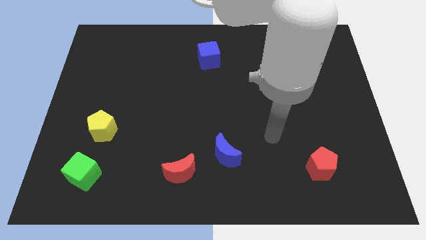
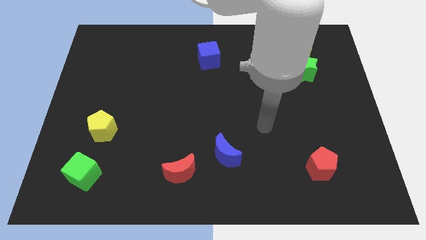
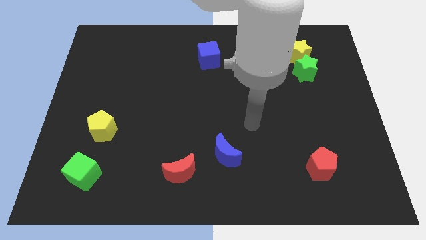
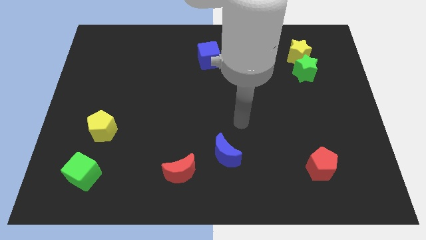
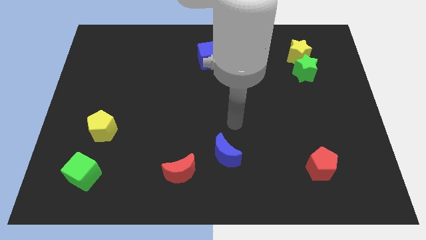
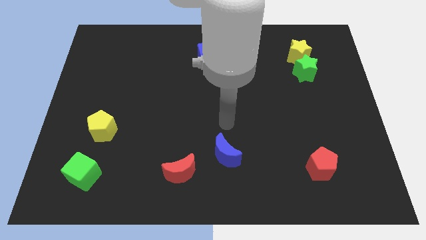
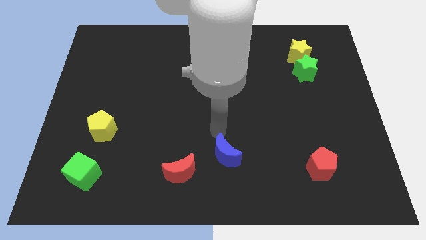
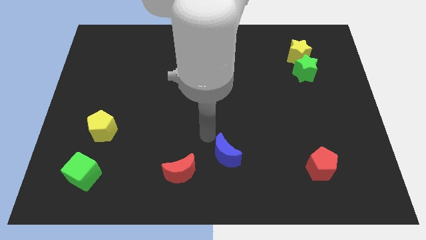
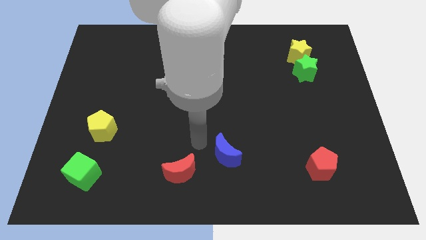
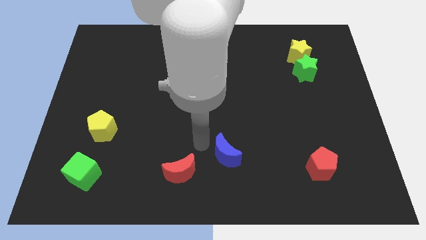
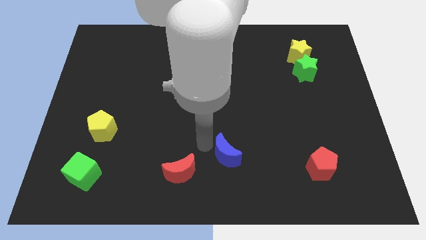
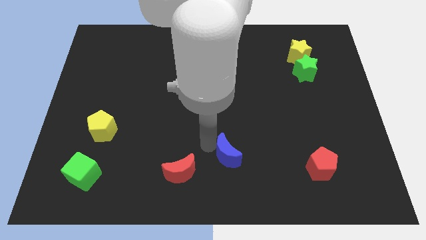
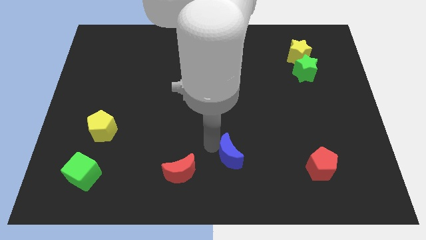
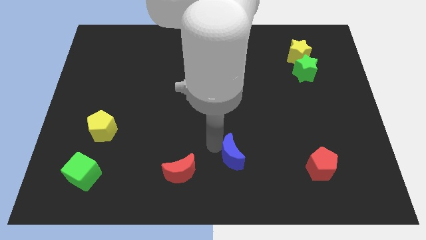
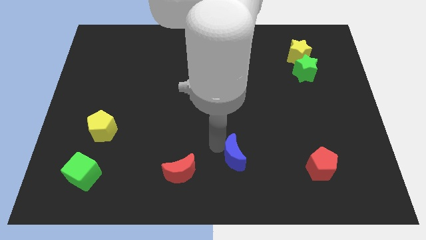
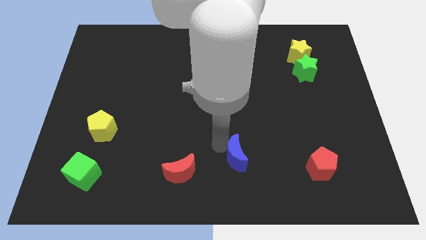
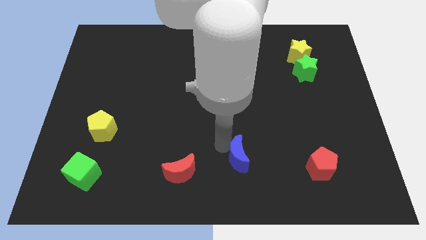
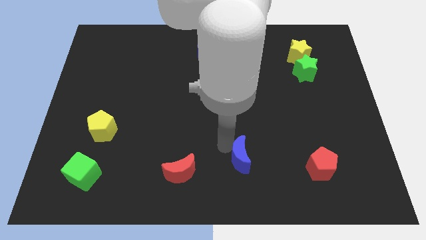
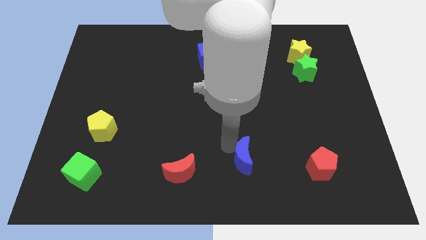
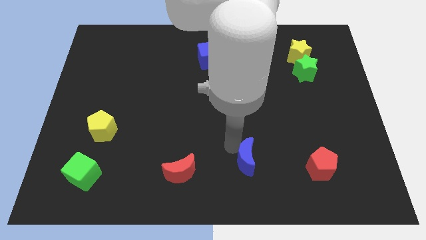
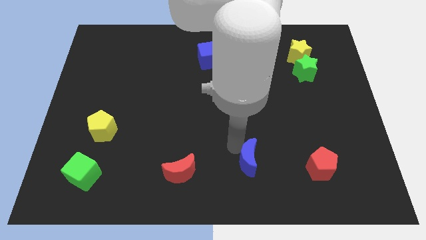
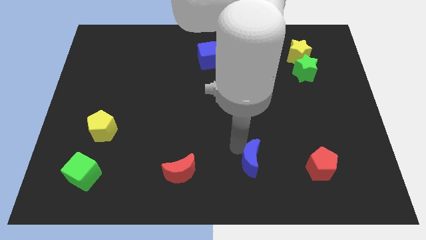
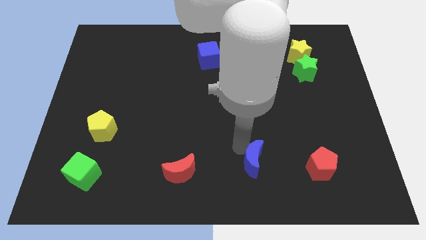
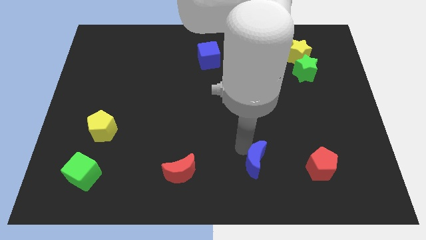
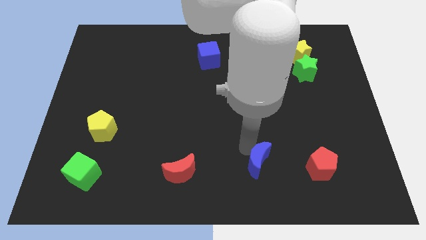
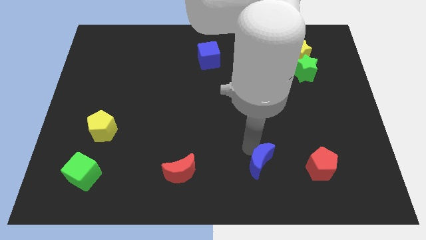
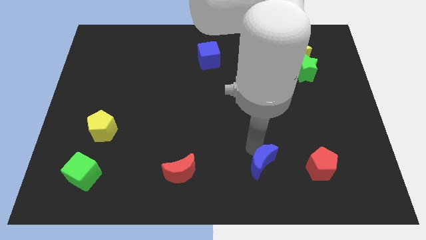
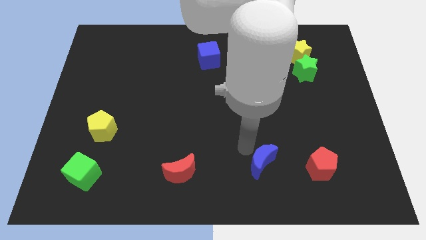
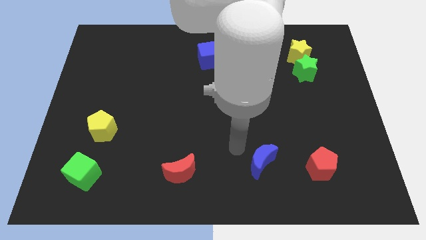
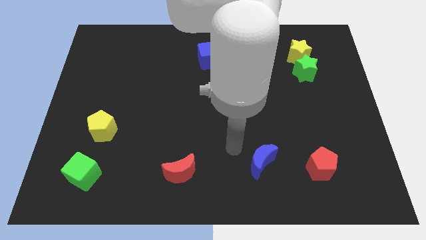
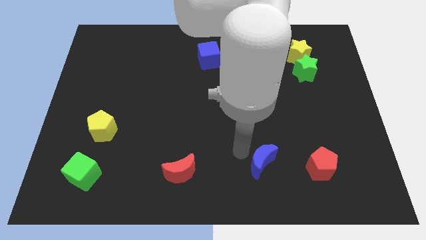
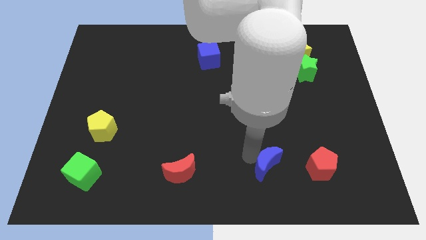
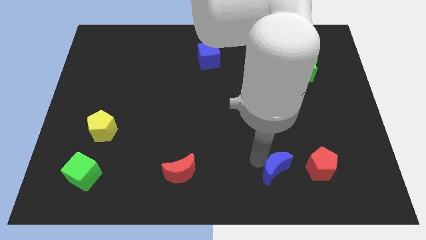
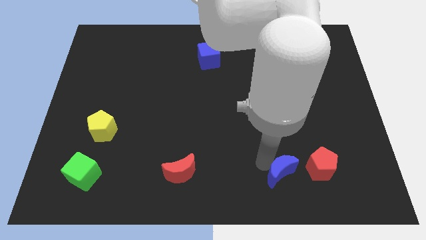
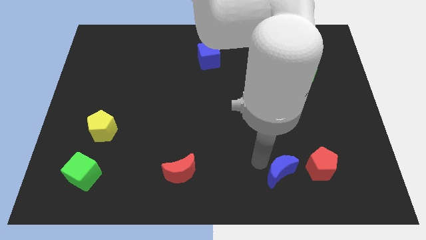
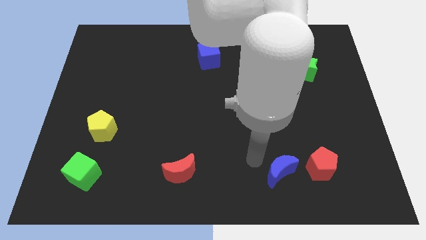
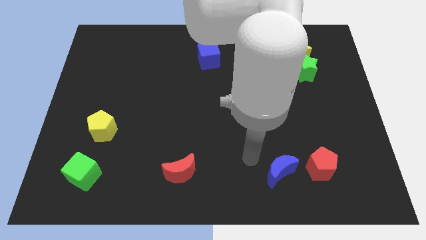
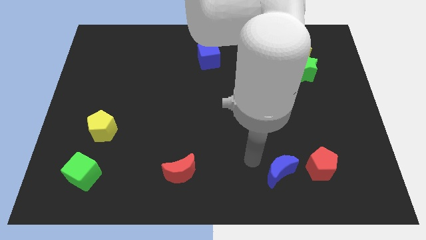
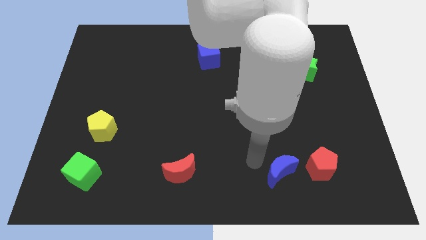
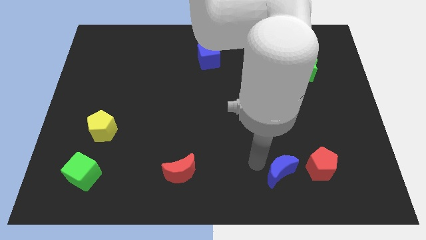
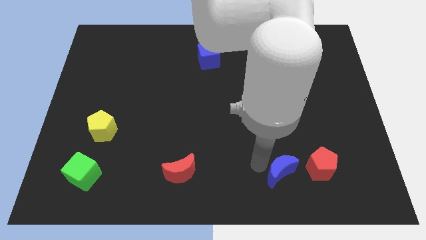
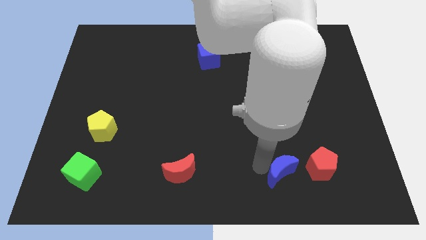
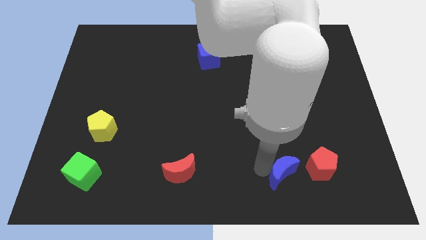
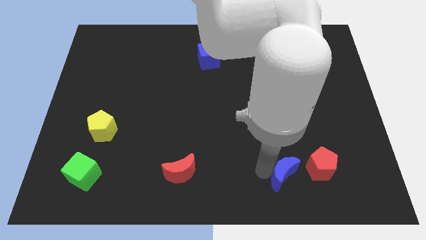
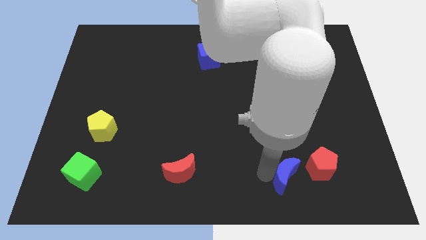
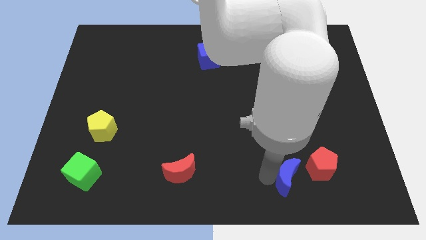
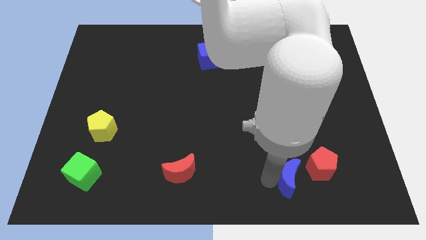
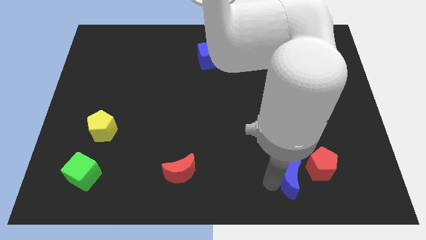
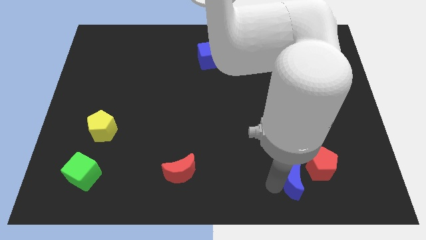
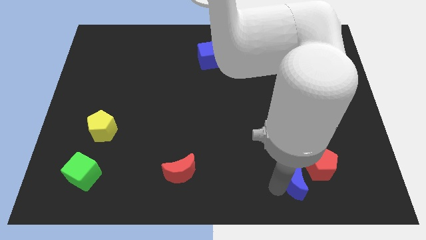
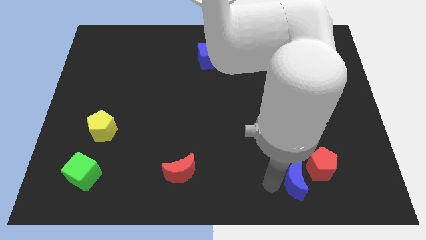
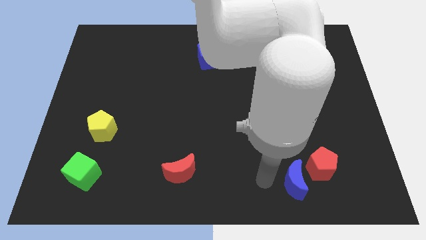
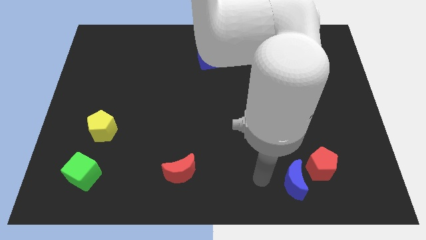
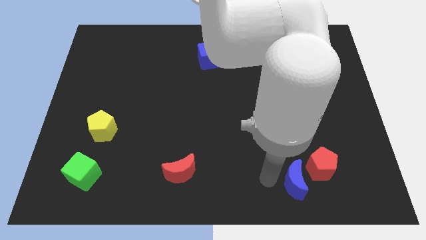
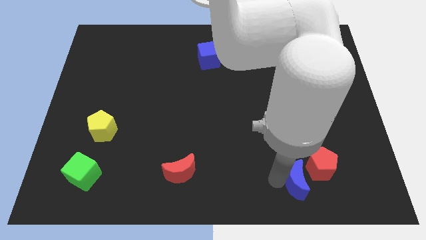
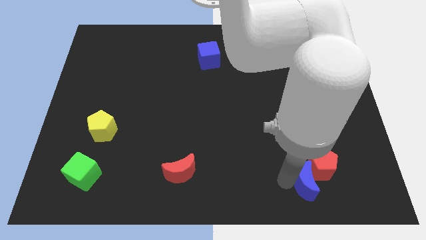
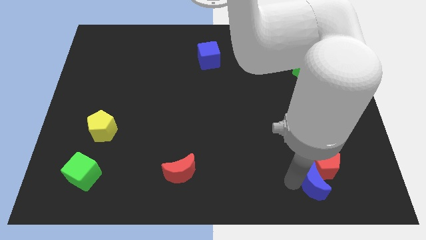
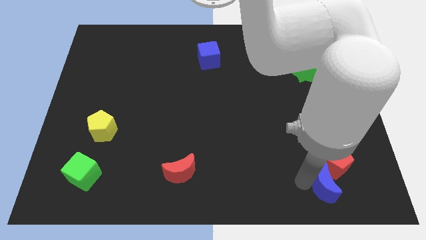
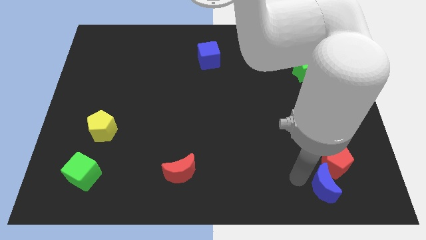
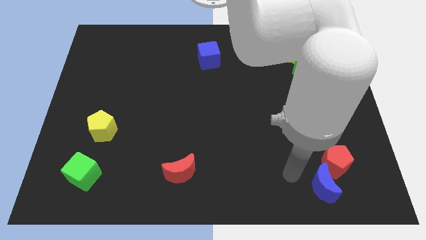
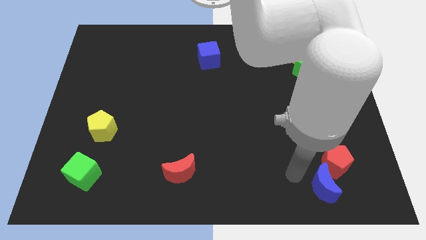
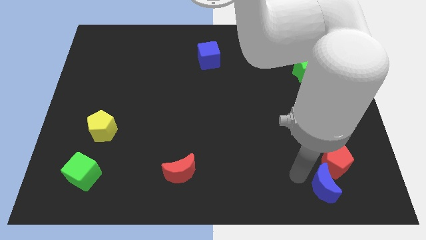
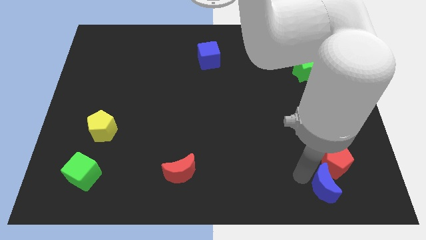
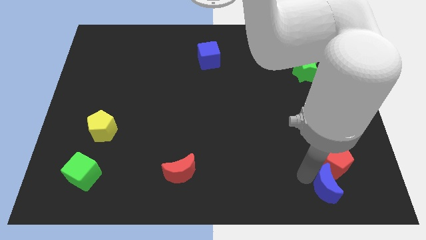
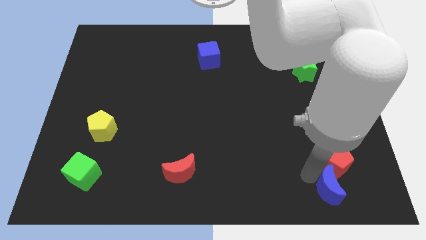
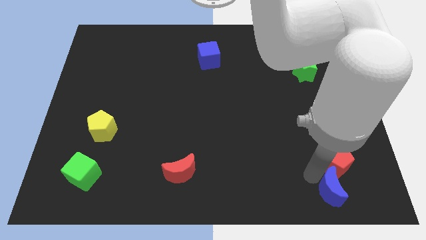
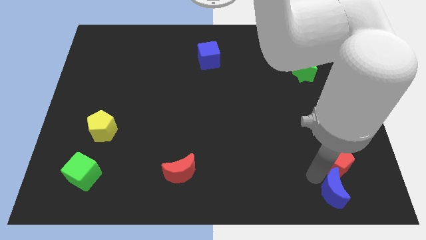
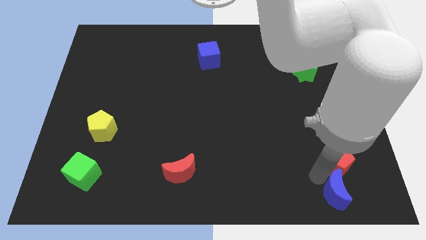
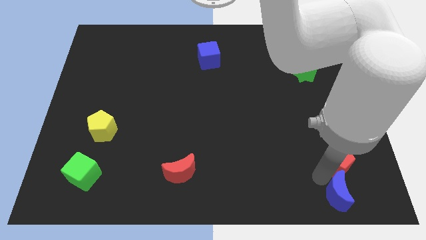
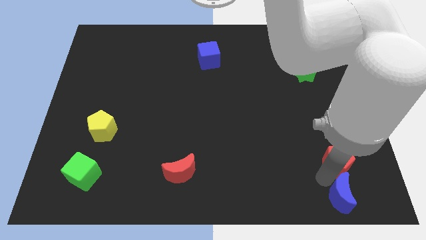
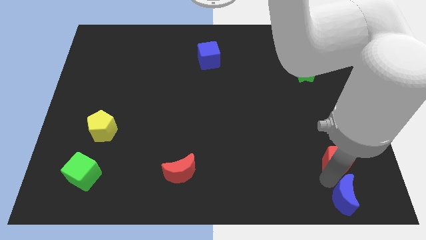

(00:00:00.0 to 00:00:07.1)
slide the blue moon to the lower right corner
